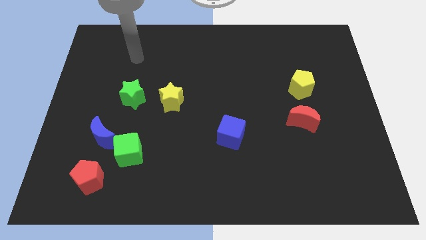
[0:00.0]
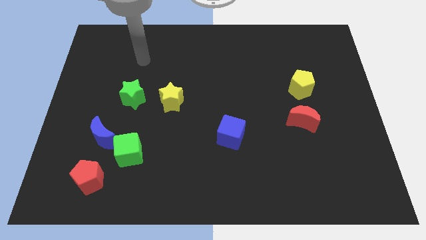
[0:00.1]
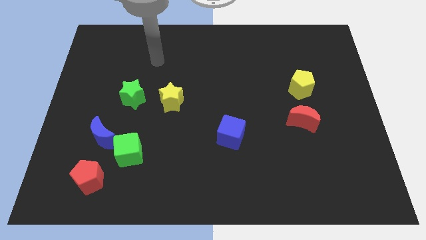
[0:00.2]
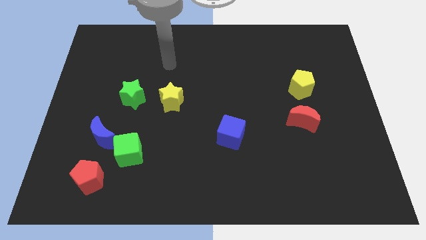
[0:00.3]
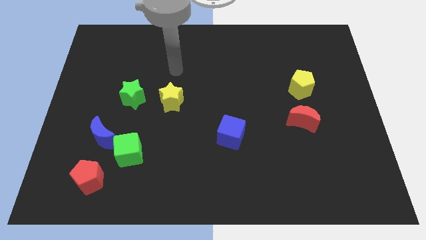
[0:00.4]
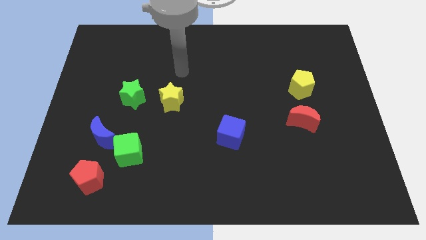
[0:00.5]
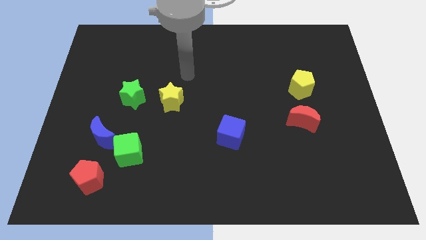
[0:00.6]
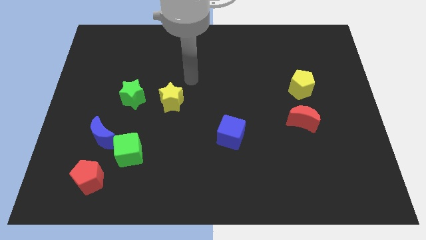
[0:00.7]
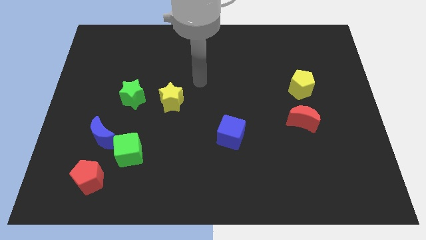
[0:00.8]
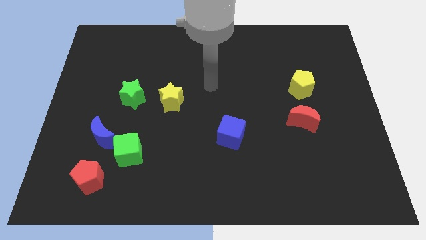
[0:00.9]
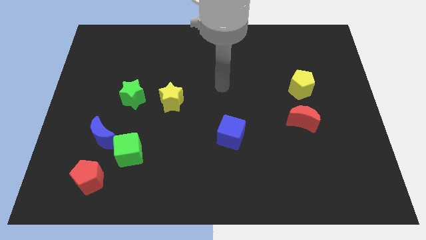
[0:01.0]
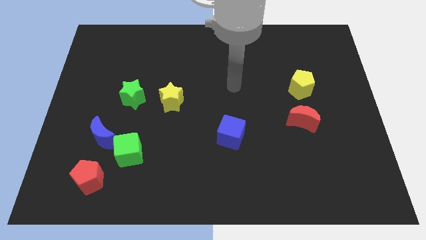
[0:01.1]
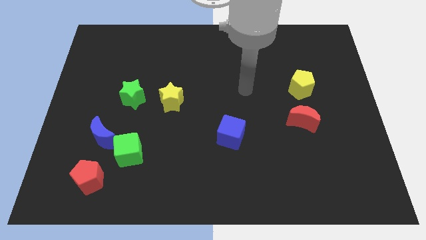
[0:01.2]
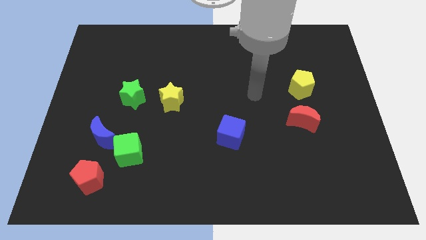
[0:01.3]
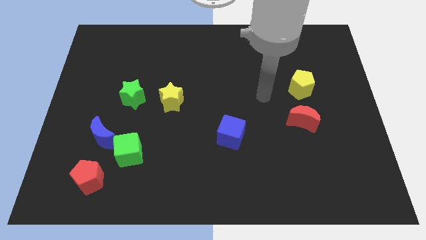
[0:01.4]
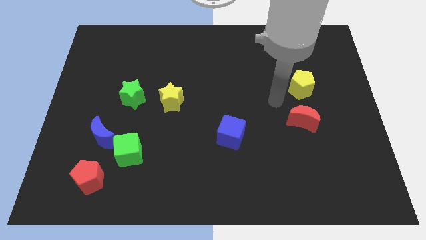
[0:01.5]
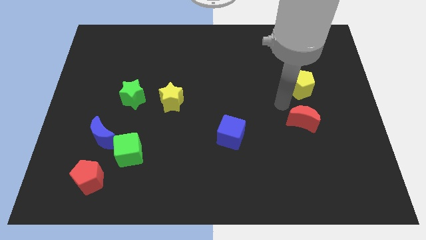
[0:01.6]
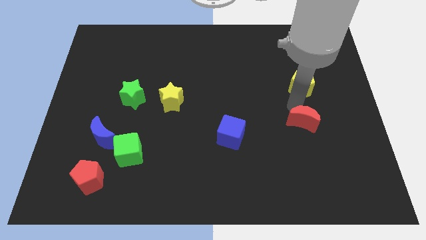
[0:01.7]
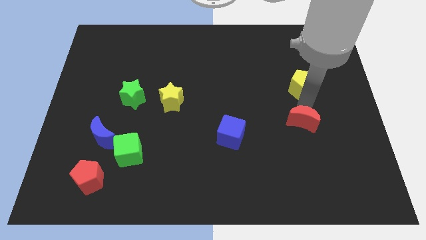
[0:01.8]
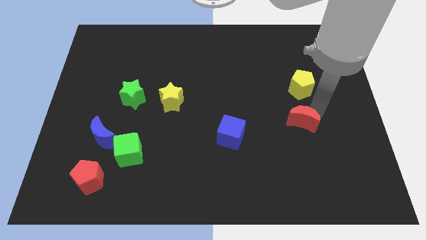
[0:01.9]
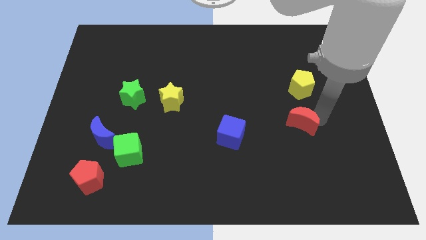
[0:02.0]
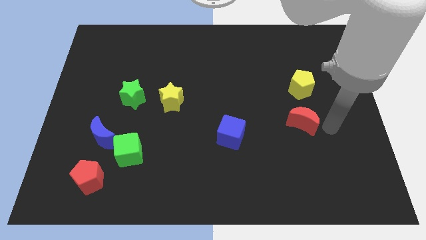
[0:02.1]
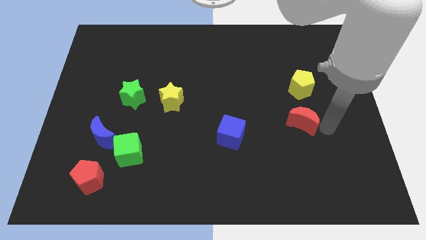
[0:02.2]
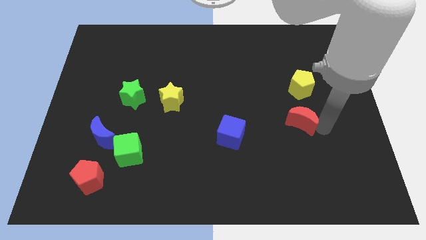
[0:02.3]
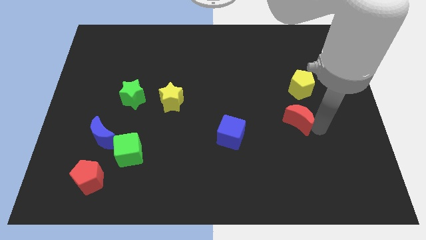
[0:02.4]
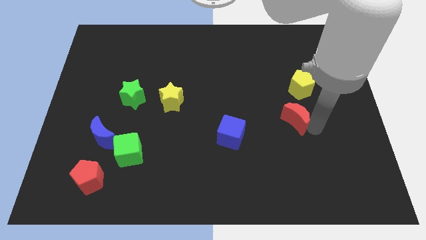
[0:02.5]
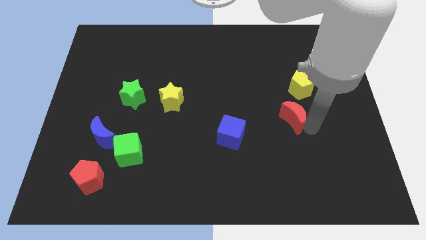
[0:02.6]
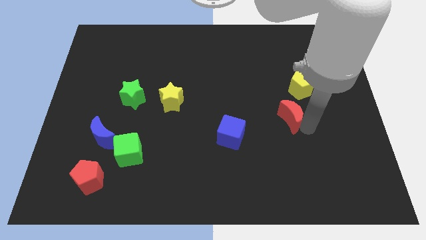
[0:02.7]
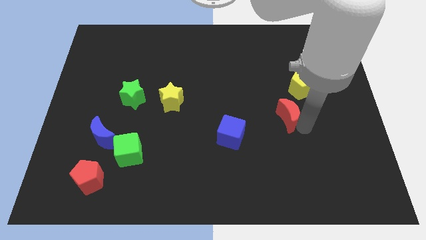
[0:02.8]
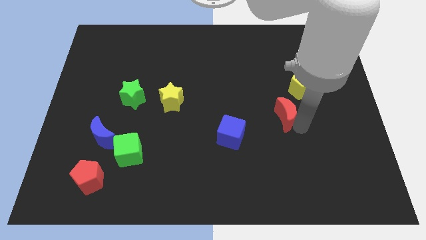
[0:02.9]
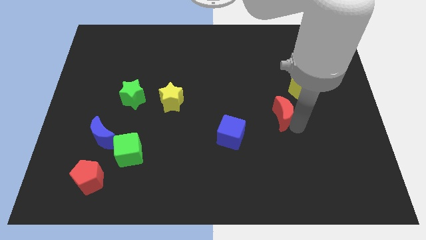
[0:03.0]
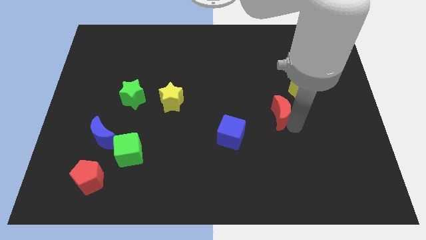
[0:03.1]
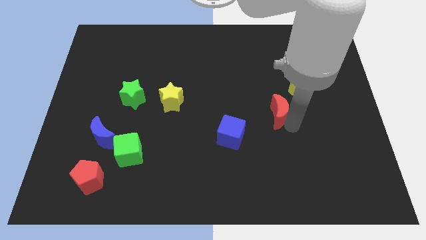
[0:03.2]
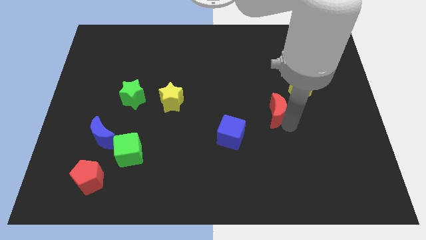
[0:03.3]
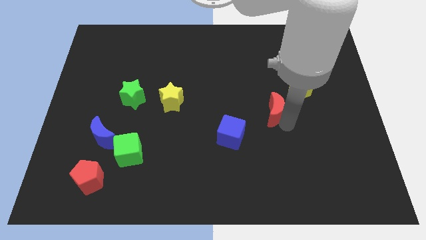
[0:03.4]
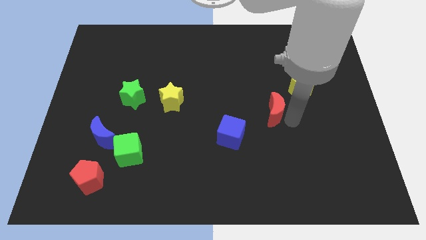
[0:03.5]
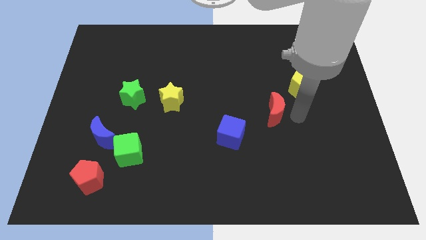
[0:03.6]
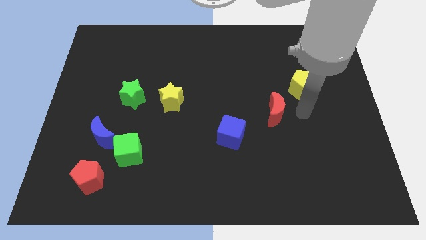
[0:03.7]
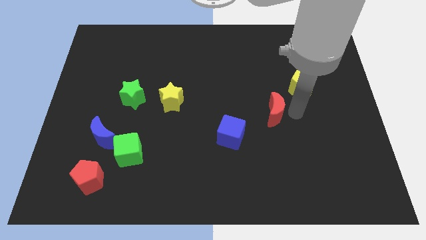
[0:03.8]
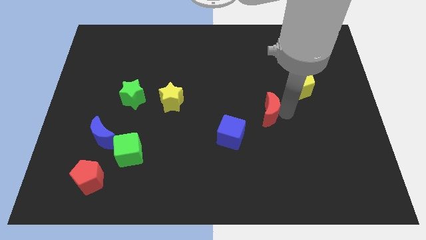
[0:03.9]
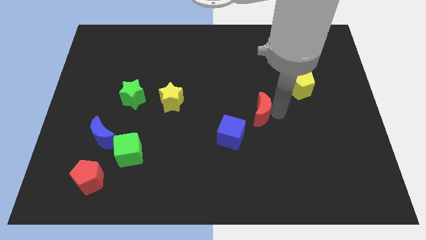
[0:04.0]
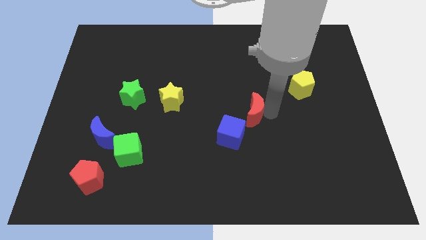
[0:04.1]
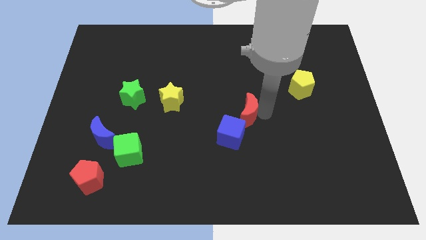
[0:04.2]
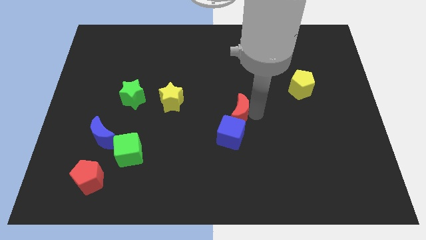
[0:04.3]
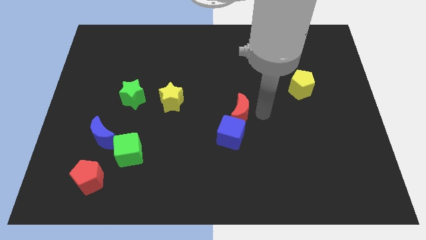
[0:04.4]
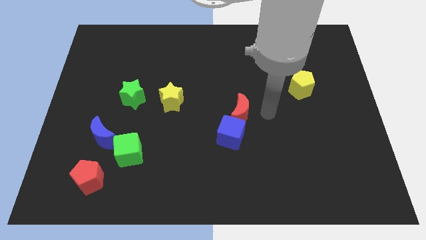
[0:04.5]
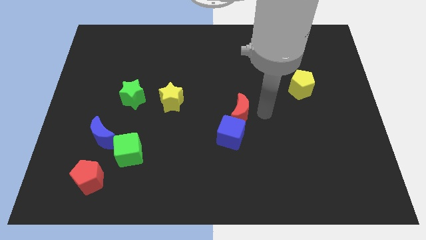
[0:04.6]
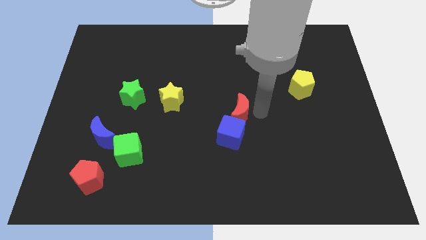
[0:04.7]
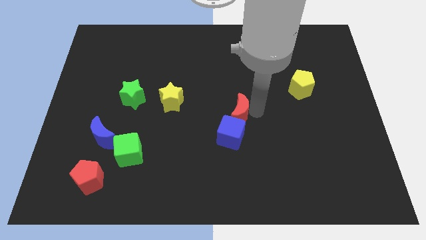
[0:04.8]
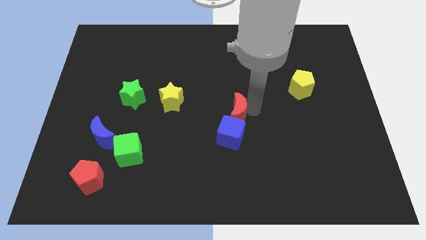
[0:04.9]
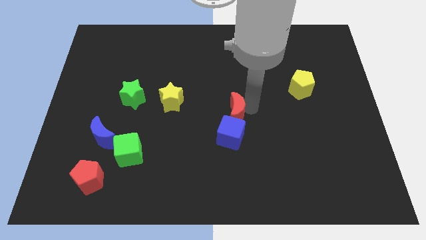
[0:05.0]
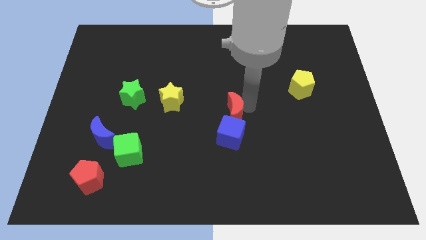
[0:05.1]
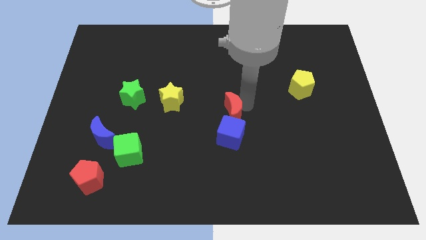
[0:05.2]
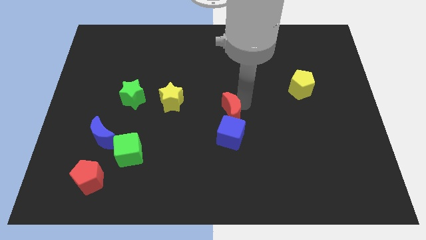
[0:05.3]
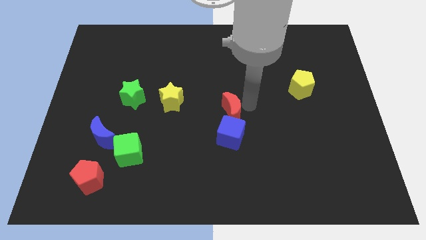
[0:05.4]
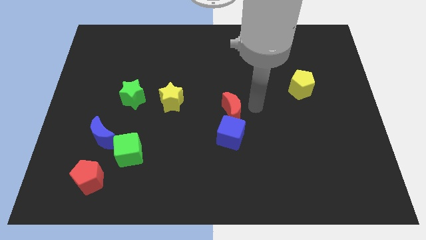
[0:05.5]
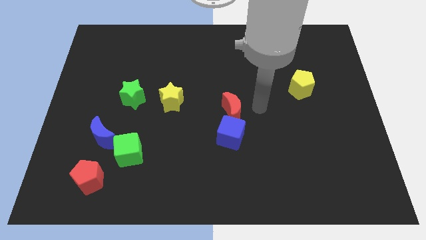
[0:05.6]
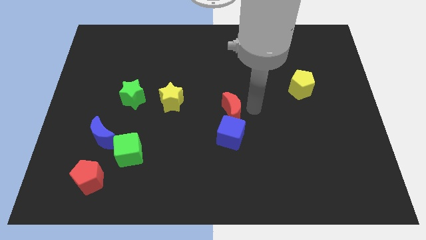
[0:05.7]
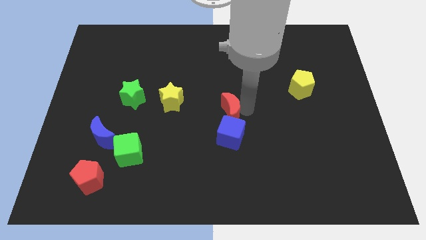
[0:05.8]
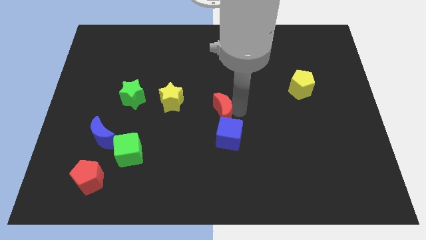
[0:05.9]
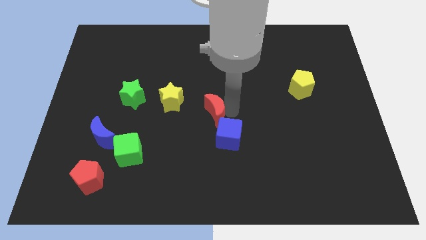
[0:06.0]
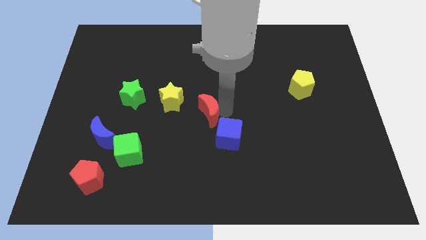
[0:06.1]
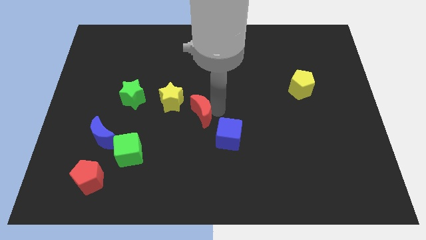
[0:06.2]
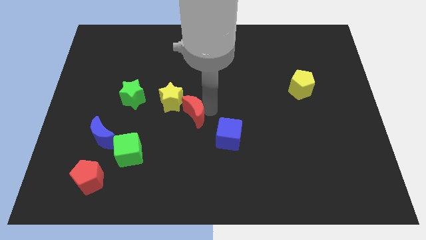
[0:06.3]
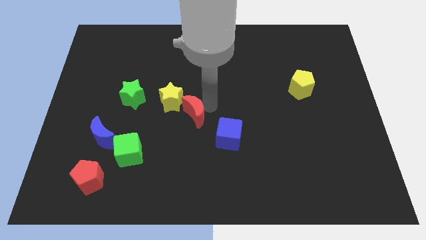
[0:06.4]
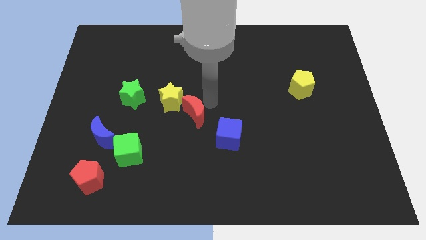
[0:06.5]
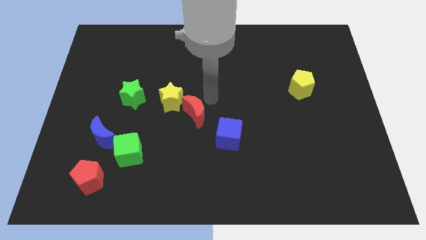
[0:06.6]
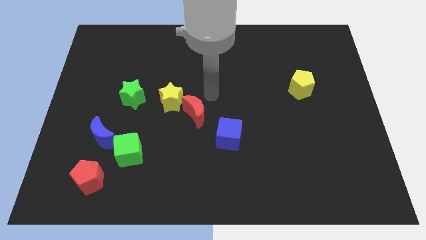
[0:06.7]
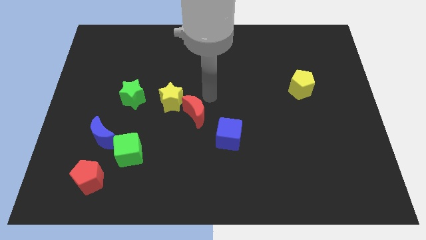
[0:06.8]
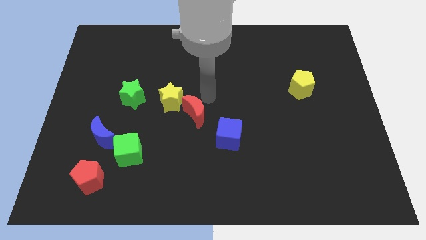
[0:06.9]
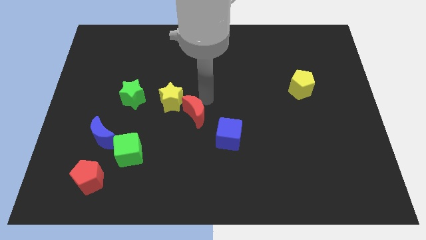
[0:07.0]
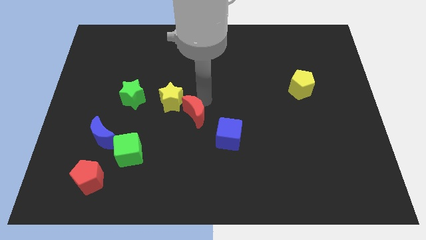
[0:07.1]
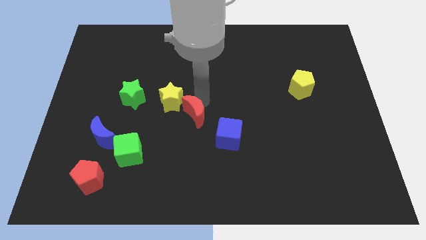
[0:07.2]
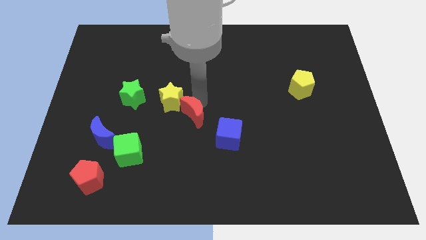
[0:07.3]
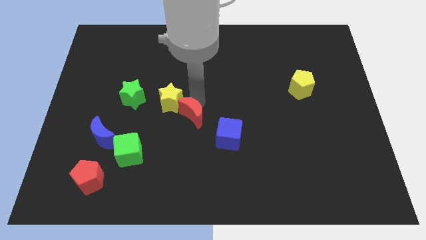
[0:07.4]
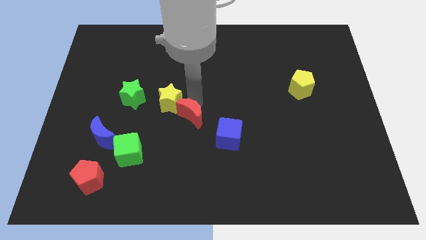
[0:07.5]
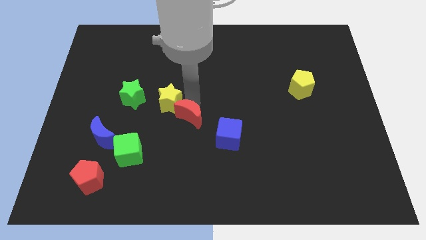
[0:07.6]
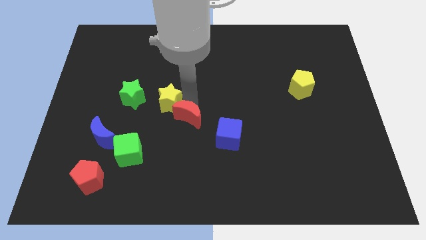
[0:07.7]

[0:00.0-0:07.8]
move the red moon to the bottom of the yellow star
